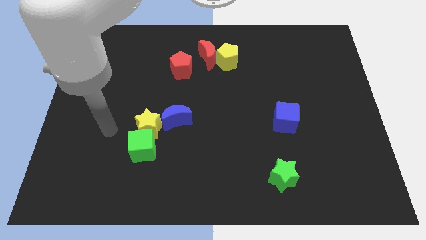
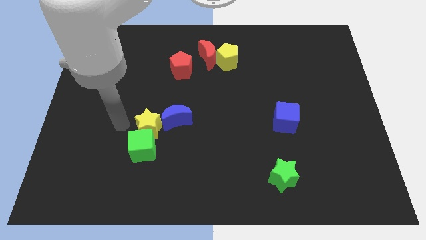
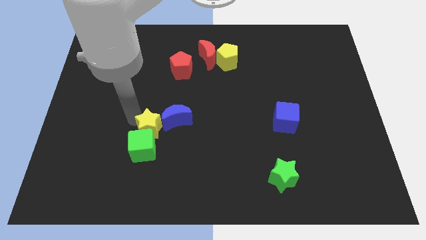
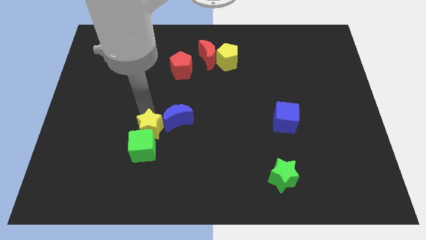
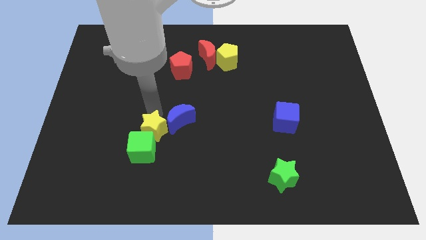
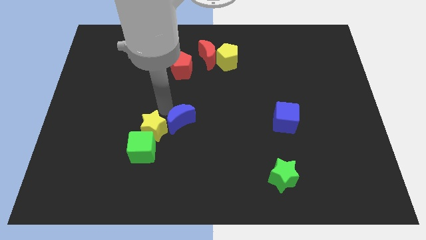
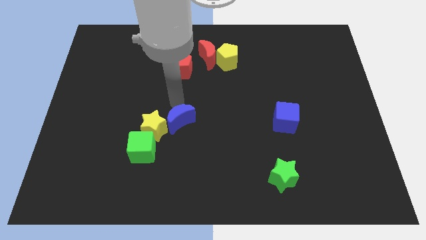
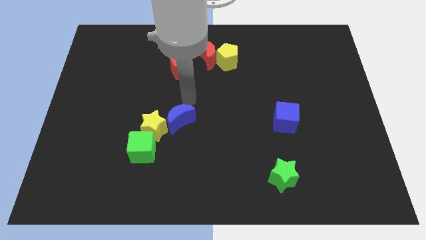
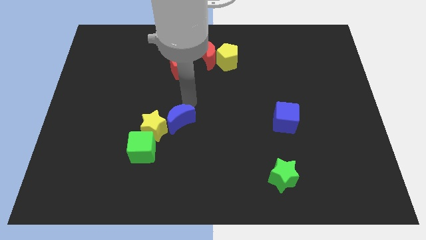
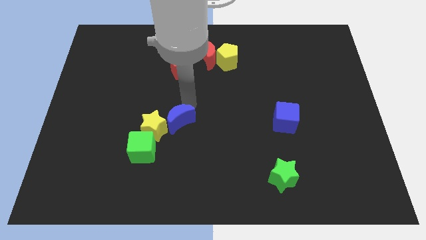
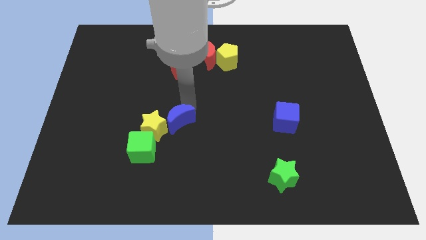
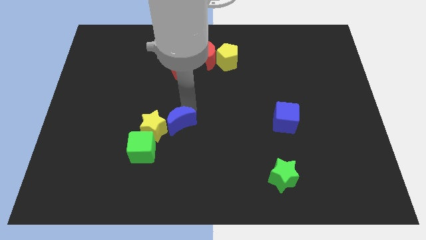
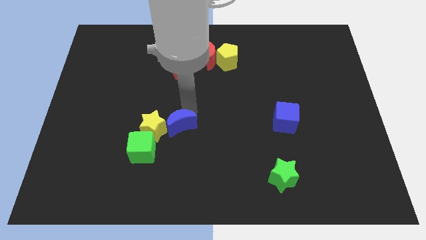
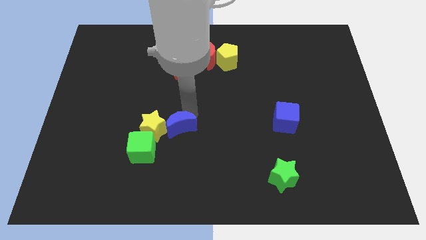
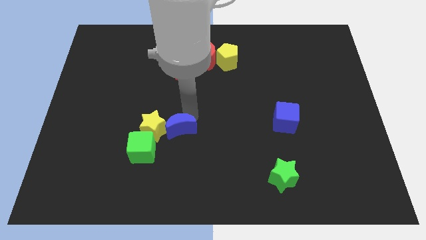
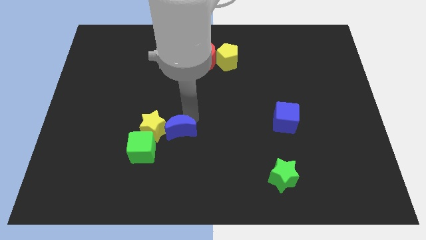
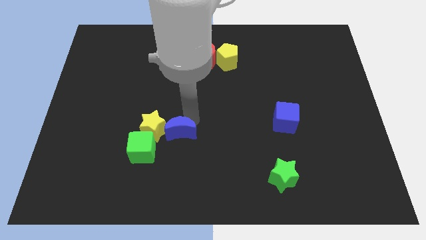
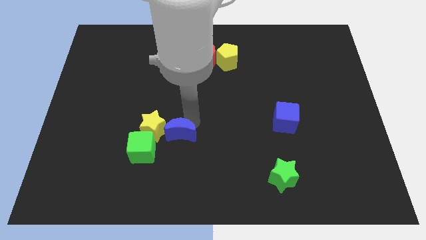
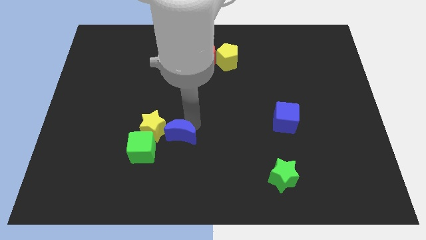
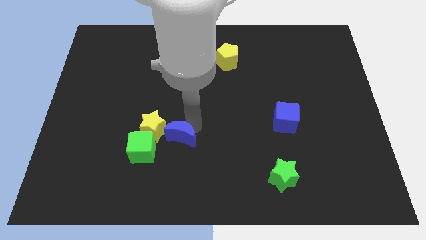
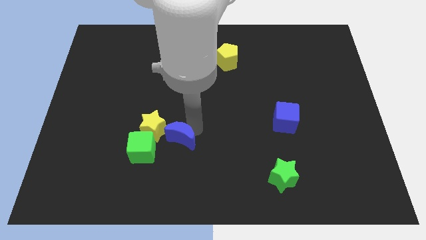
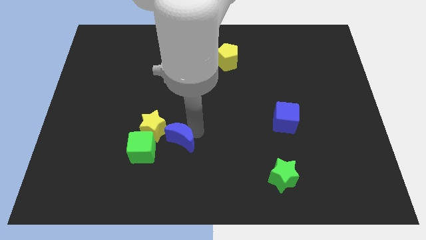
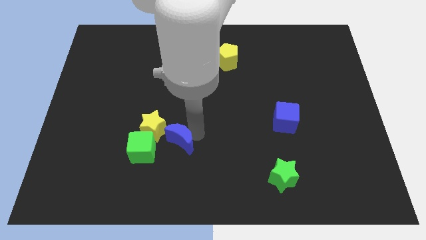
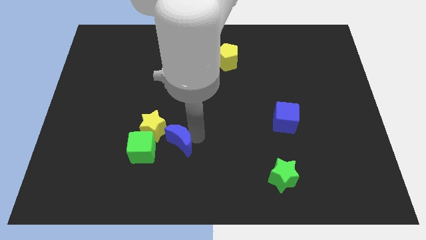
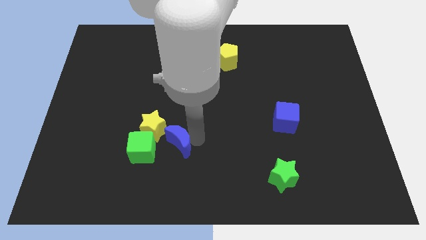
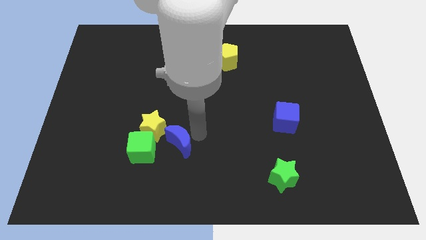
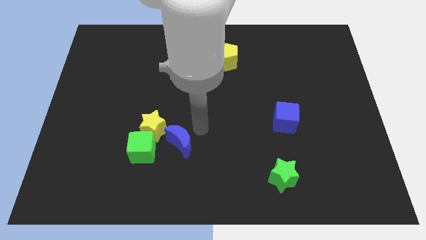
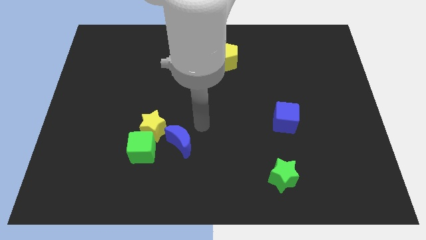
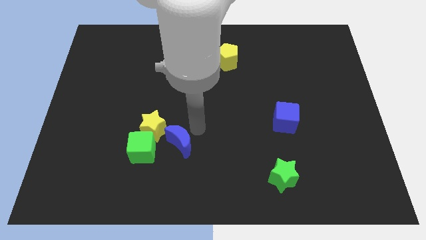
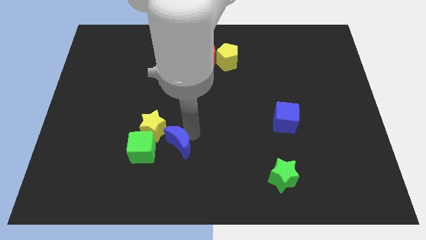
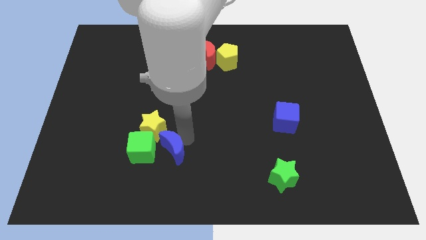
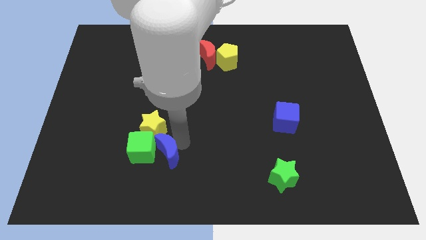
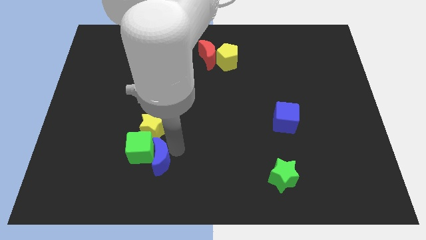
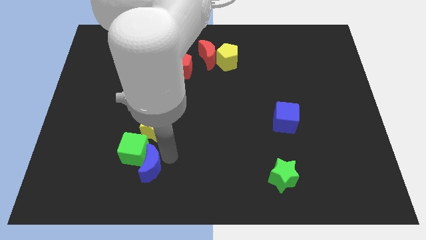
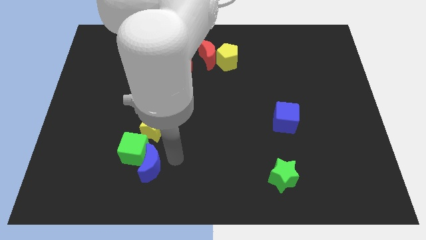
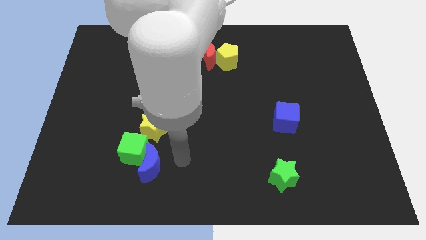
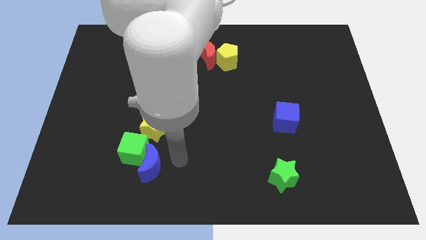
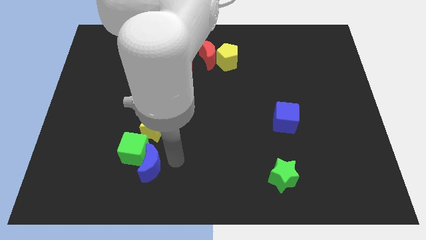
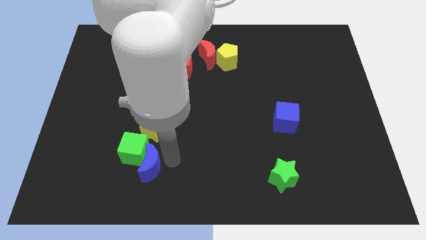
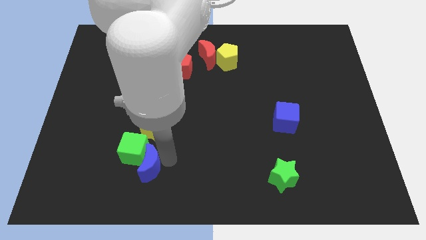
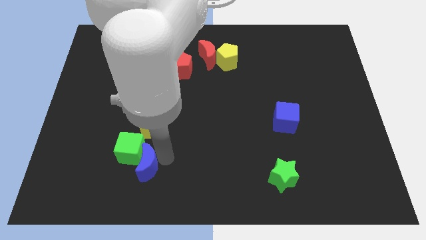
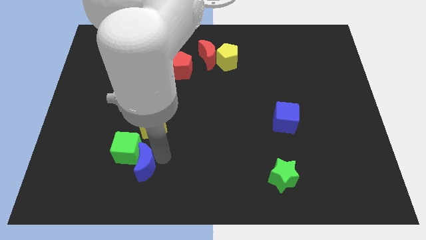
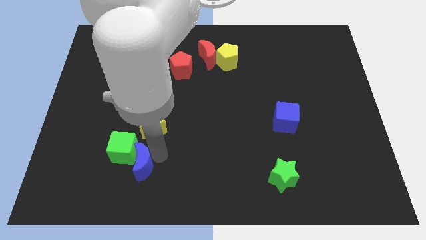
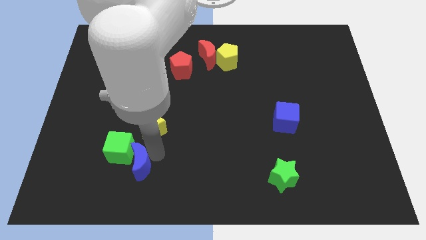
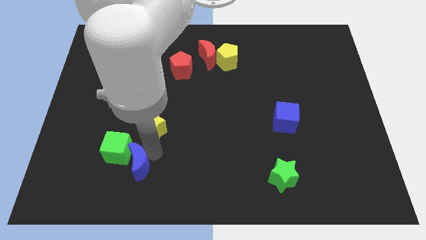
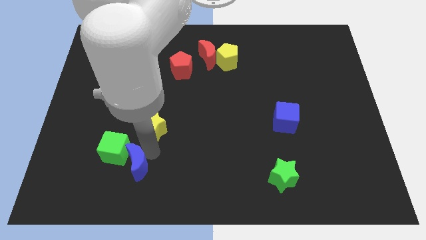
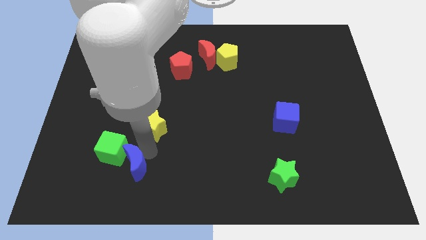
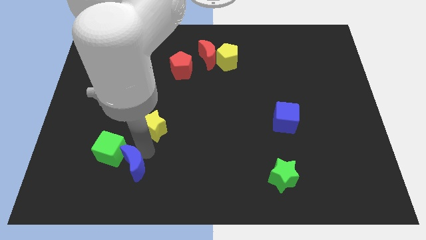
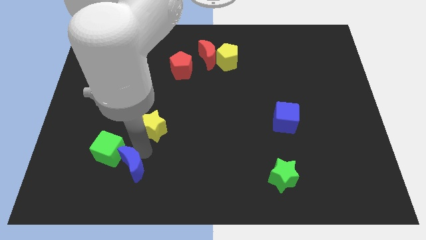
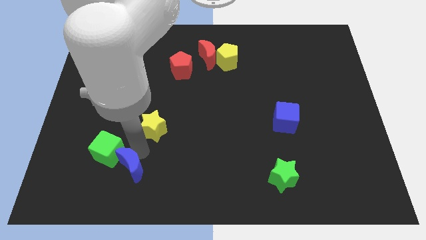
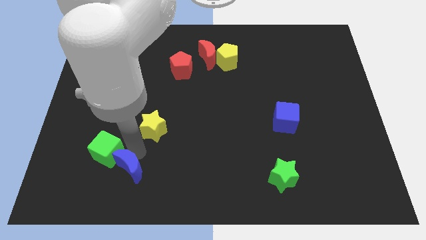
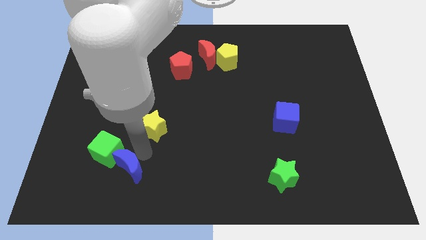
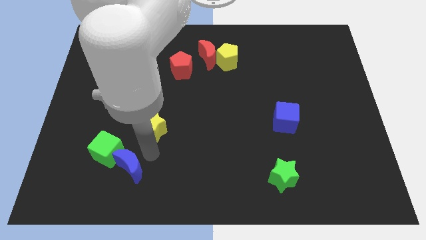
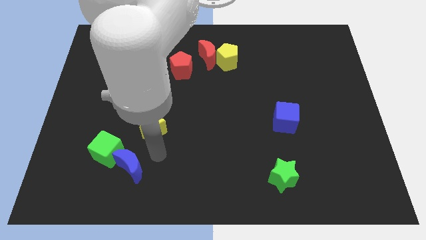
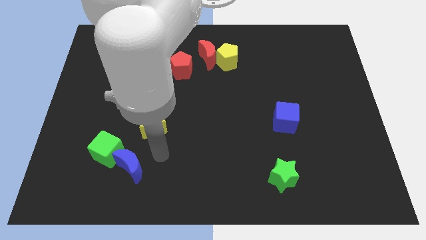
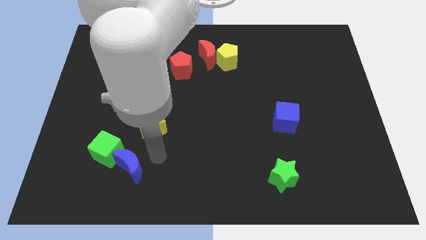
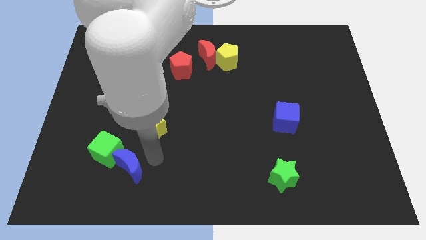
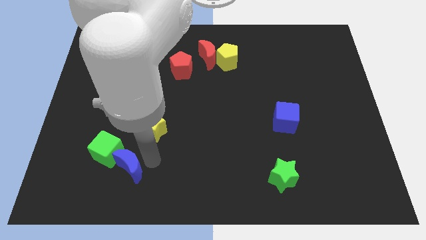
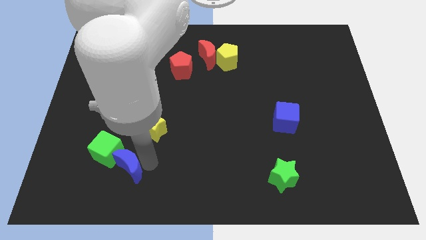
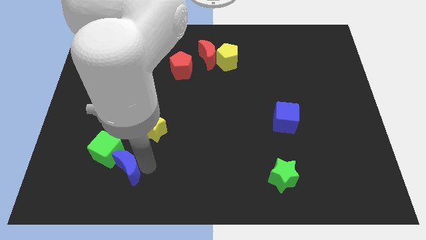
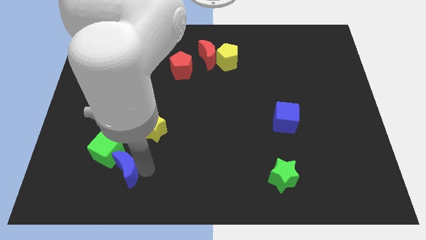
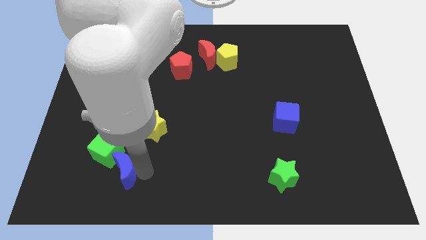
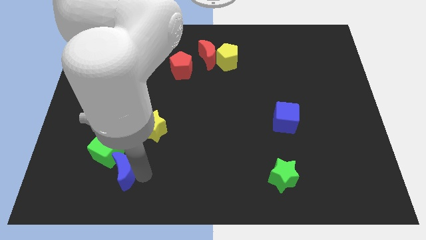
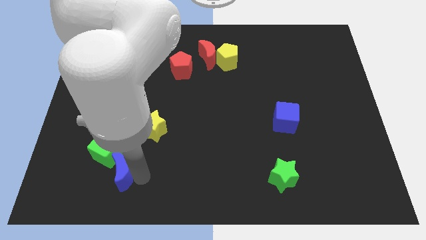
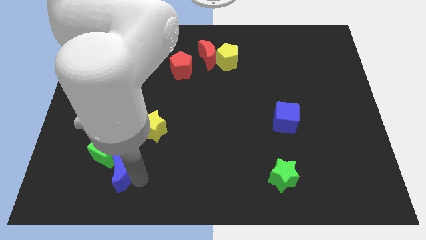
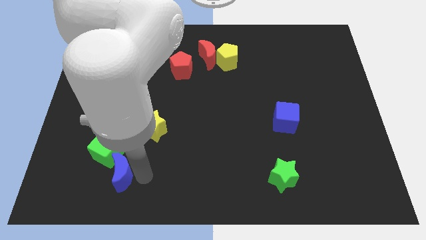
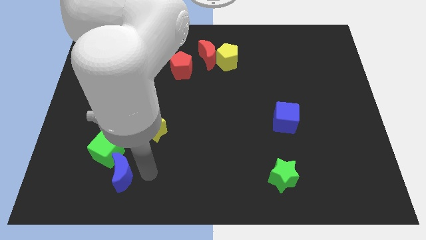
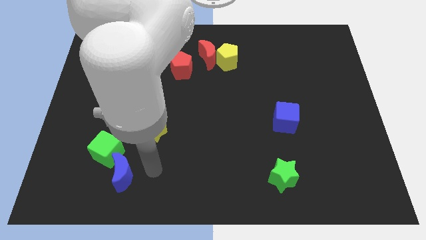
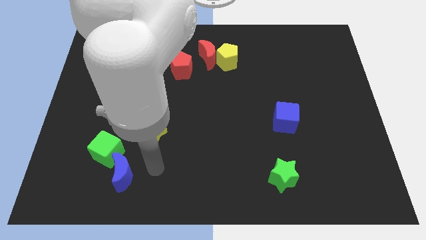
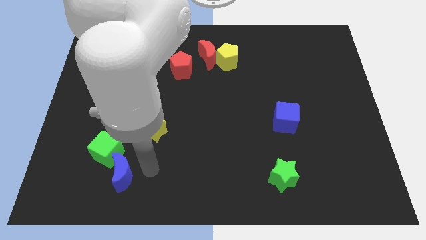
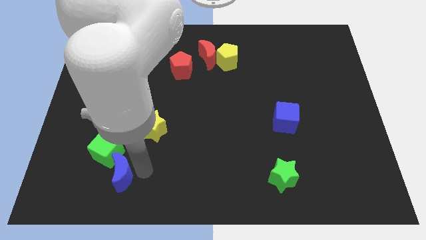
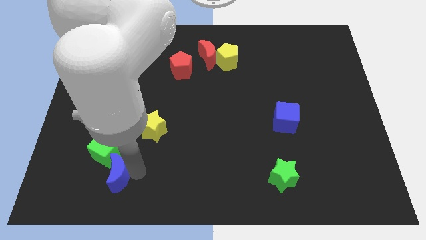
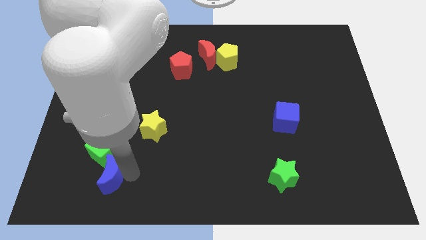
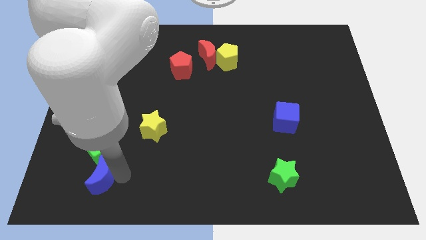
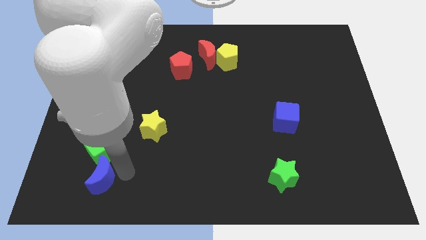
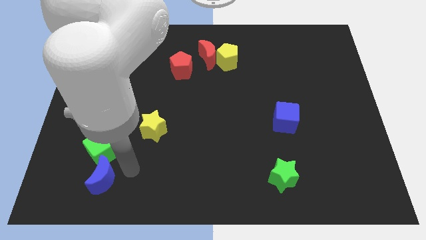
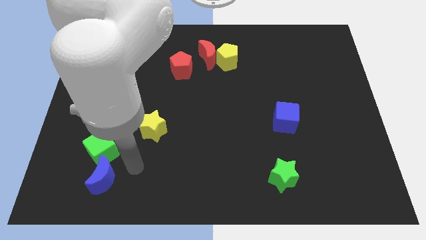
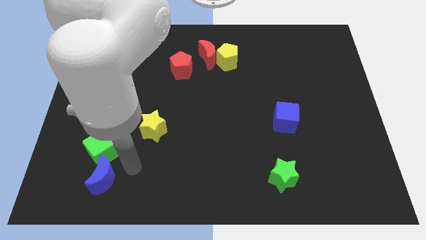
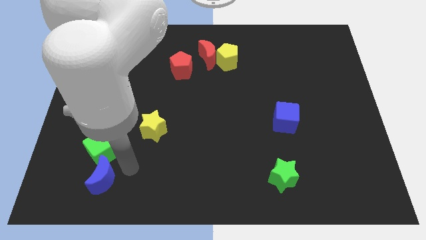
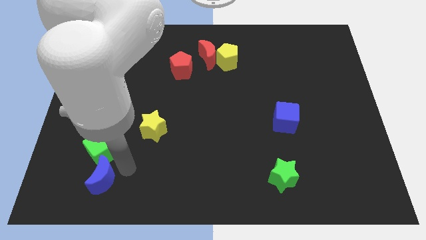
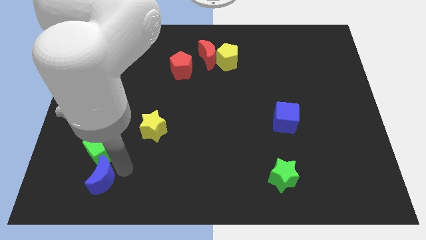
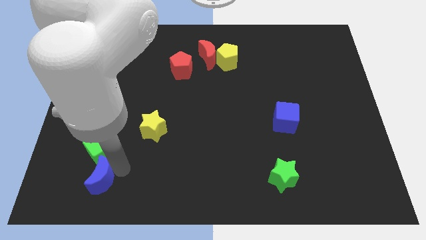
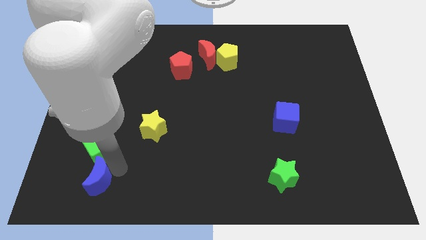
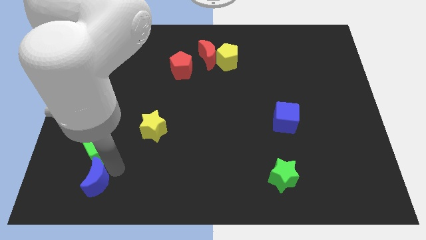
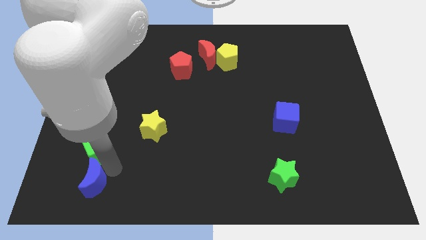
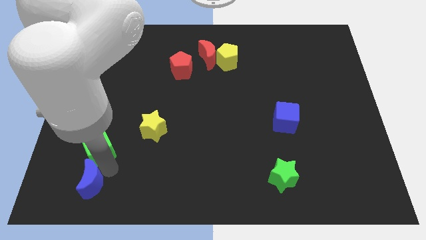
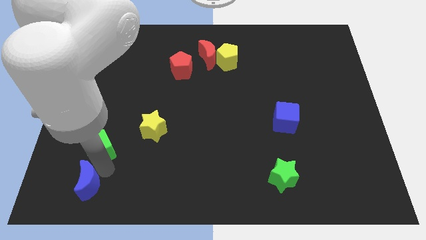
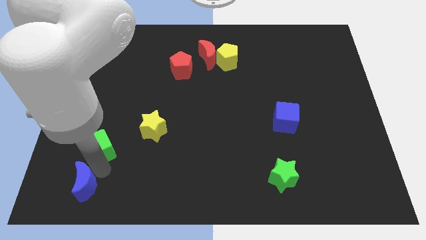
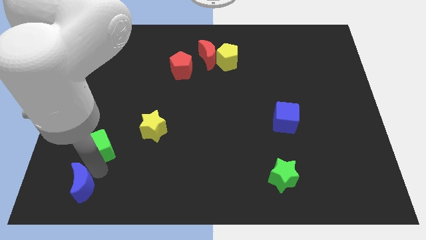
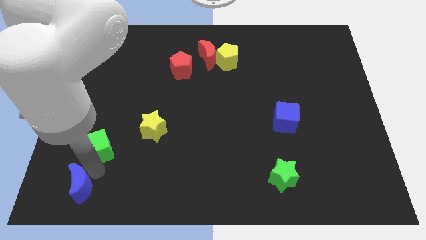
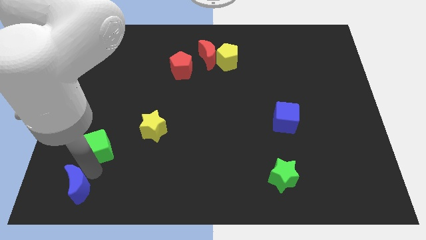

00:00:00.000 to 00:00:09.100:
push the blue moon to the bottom left
